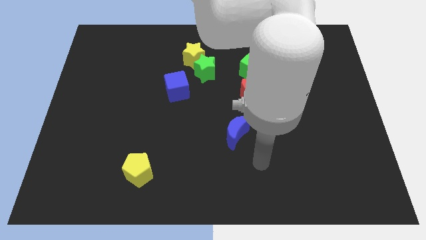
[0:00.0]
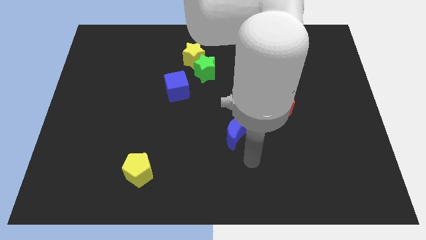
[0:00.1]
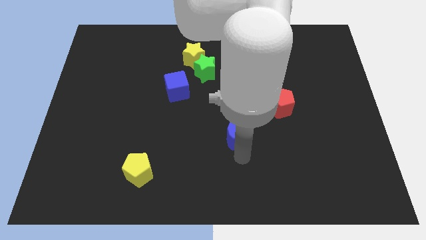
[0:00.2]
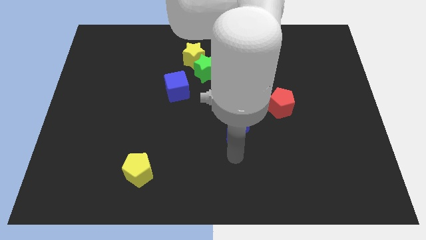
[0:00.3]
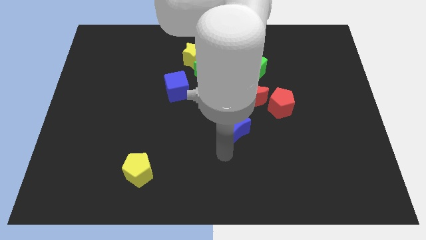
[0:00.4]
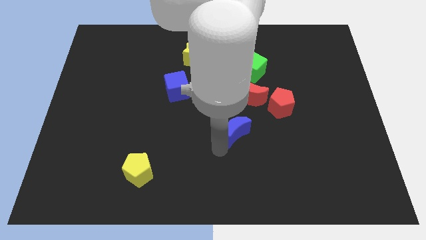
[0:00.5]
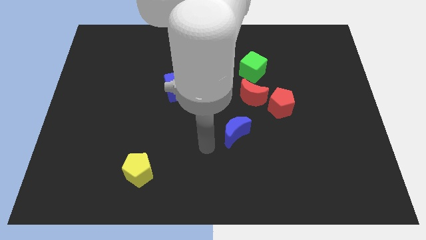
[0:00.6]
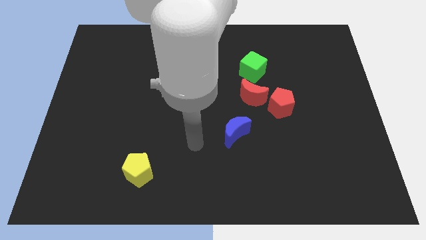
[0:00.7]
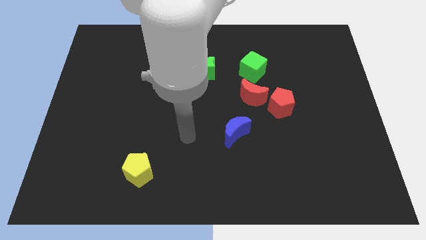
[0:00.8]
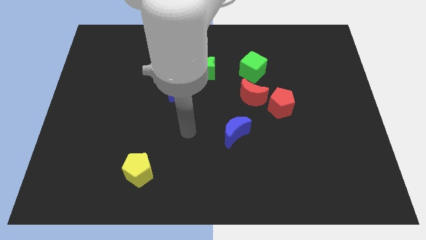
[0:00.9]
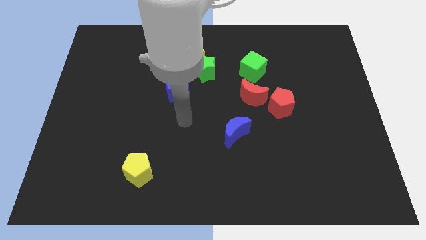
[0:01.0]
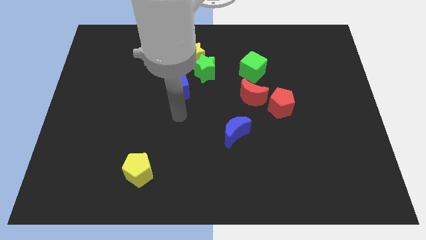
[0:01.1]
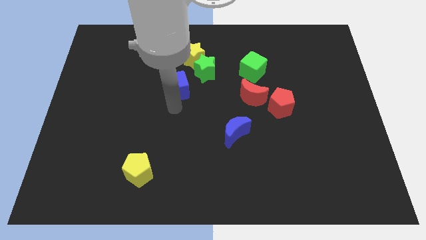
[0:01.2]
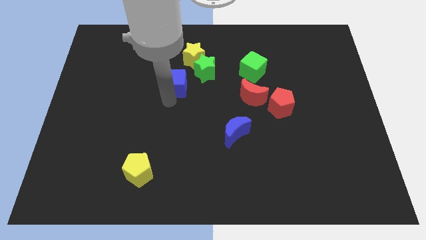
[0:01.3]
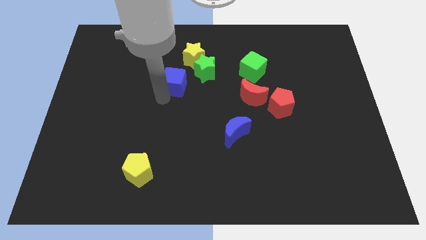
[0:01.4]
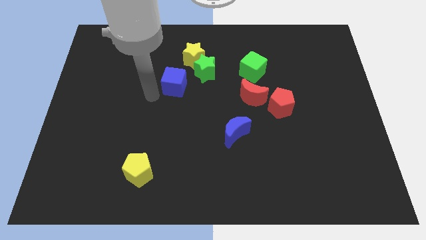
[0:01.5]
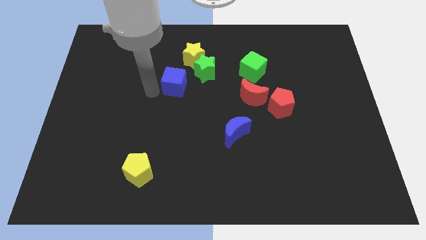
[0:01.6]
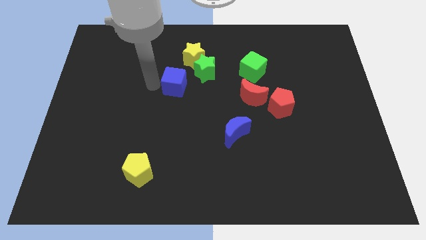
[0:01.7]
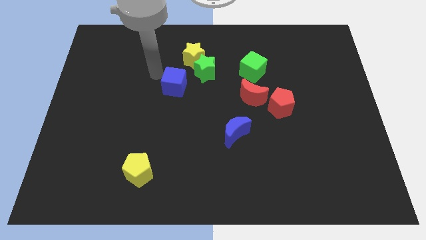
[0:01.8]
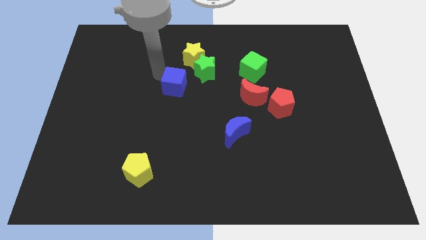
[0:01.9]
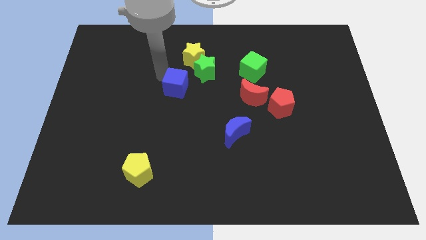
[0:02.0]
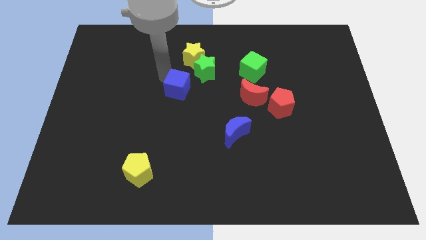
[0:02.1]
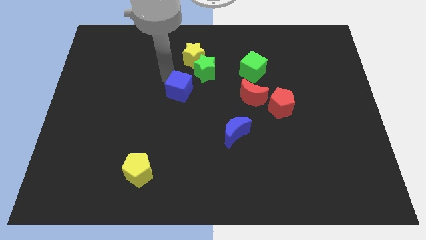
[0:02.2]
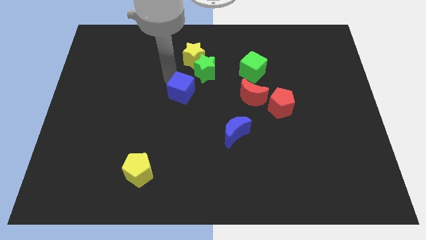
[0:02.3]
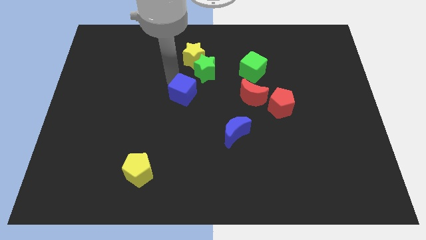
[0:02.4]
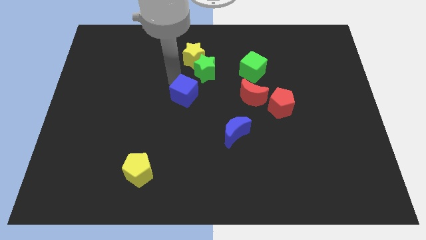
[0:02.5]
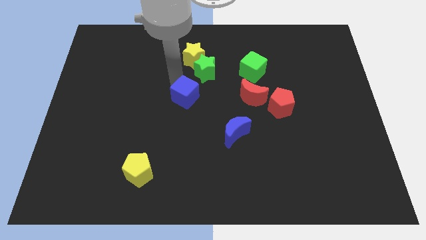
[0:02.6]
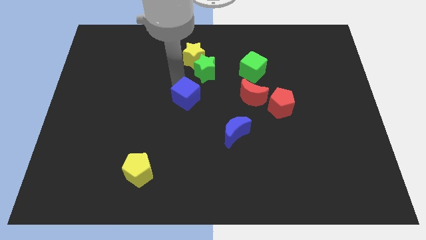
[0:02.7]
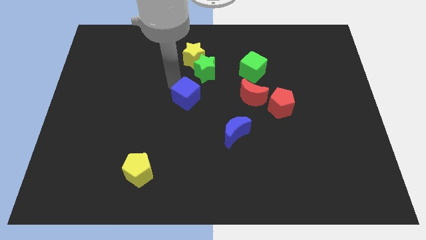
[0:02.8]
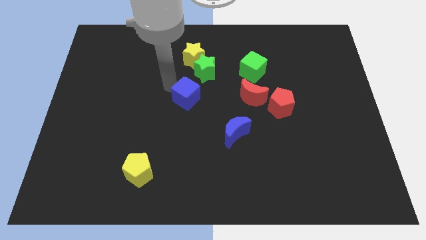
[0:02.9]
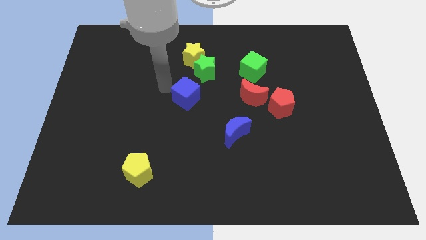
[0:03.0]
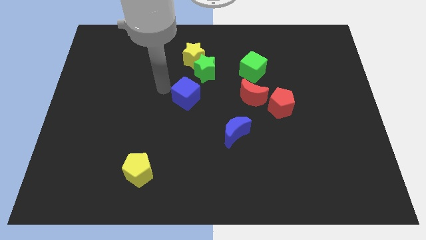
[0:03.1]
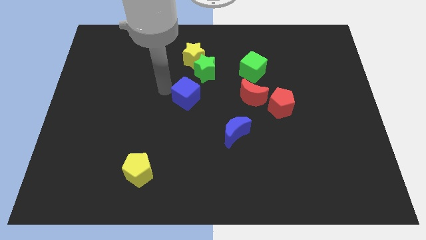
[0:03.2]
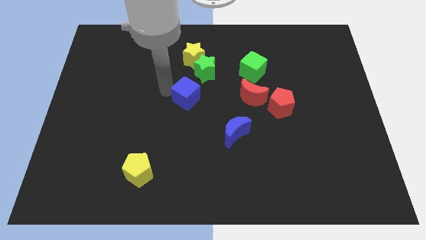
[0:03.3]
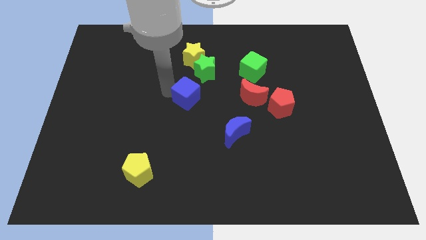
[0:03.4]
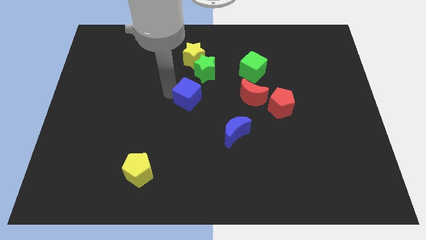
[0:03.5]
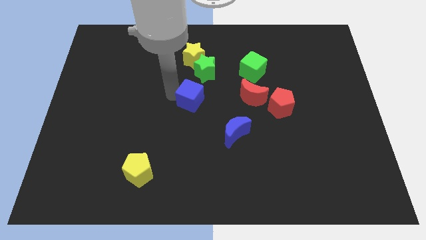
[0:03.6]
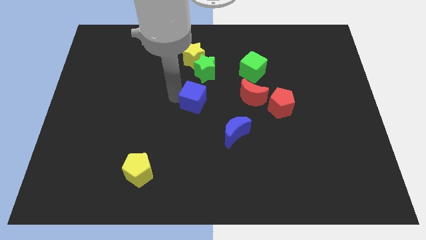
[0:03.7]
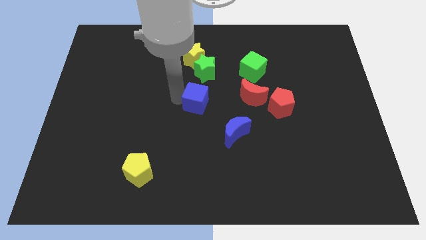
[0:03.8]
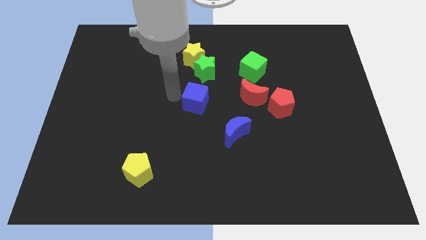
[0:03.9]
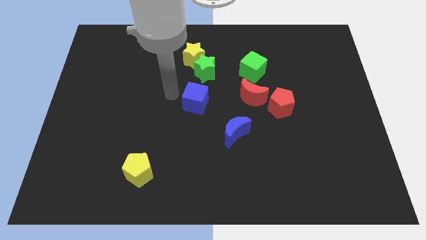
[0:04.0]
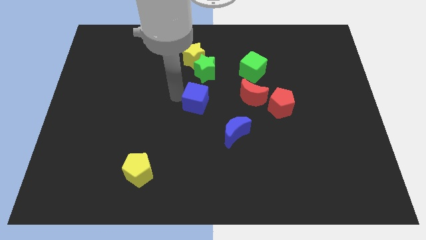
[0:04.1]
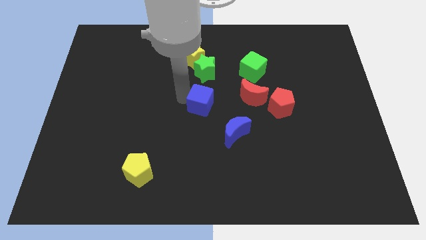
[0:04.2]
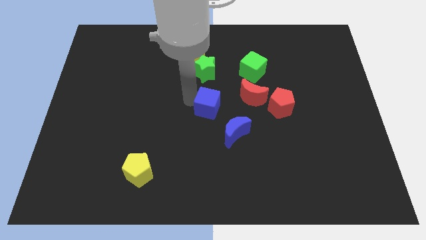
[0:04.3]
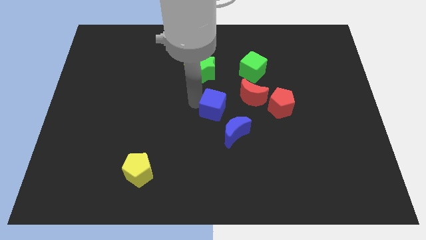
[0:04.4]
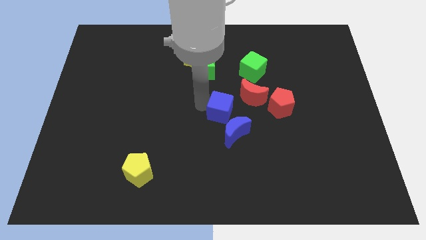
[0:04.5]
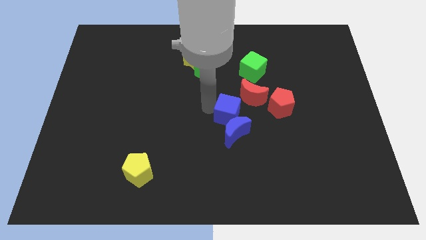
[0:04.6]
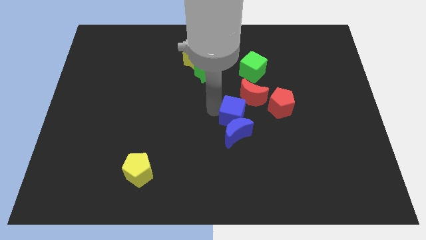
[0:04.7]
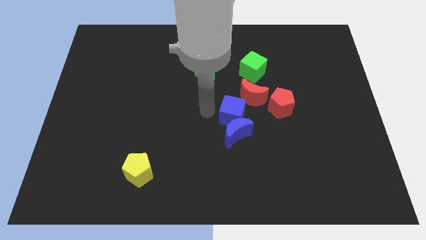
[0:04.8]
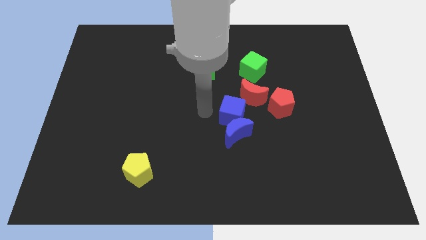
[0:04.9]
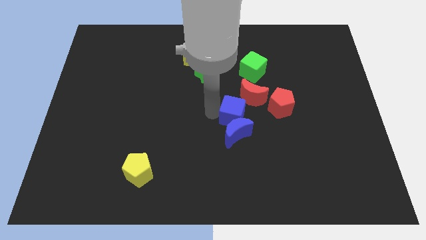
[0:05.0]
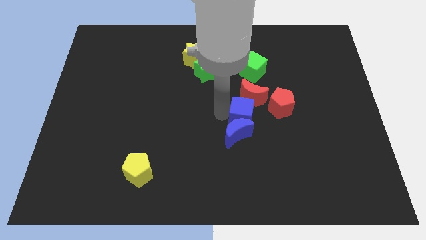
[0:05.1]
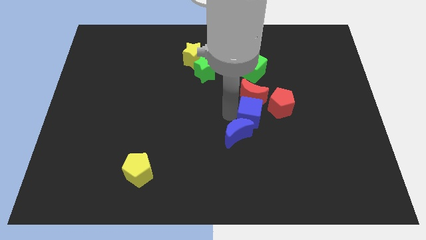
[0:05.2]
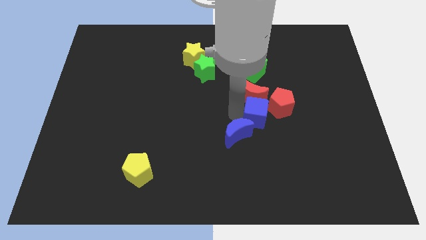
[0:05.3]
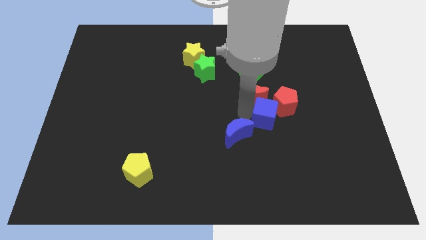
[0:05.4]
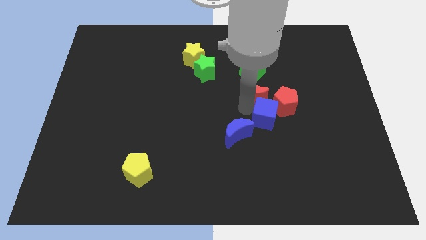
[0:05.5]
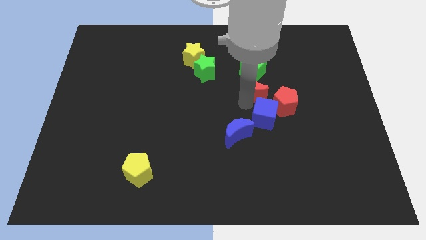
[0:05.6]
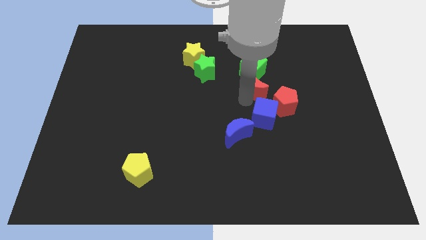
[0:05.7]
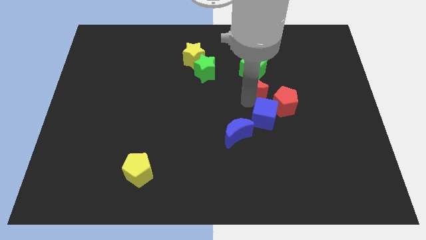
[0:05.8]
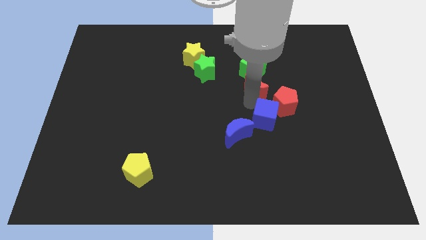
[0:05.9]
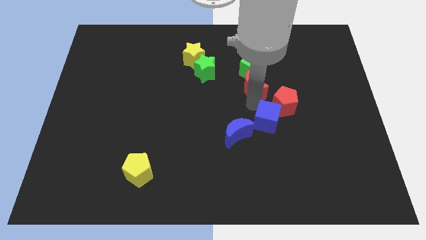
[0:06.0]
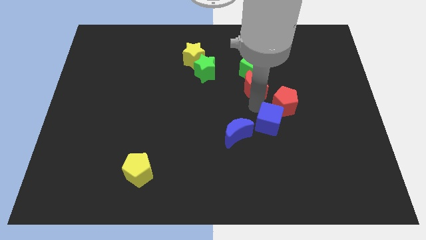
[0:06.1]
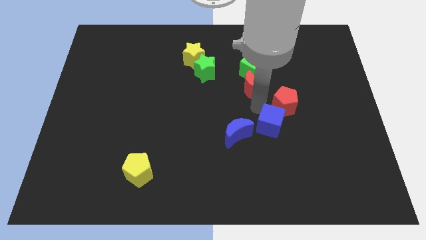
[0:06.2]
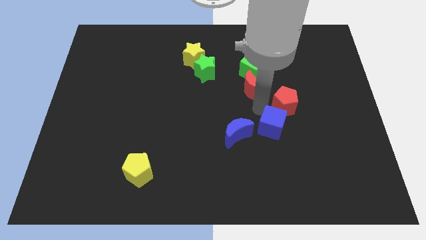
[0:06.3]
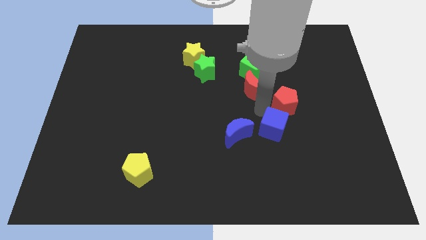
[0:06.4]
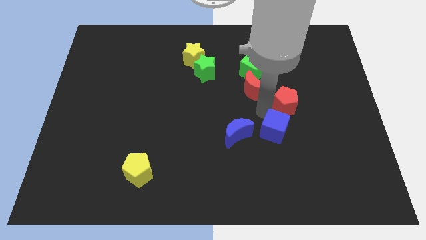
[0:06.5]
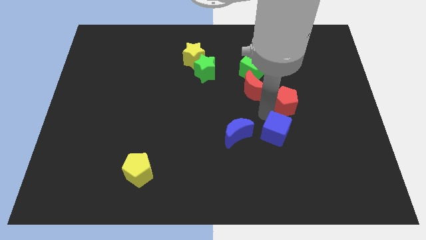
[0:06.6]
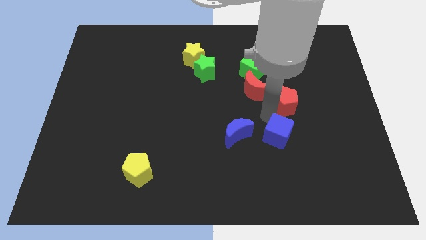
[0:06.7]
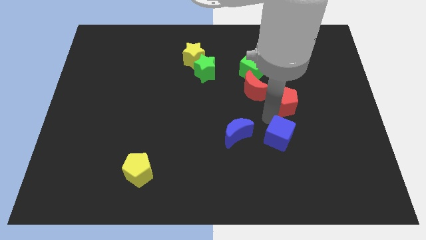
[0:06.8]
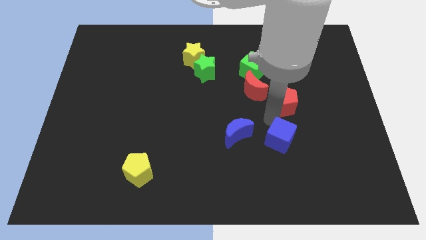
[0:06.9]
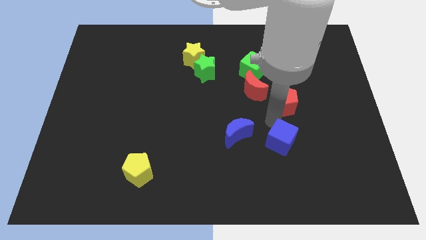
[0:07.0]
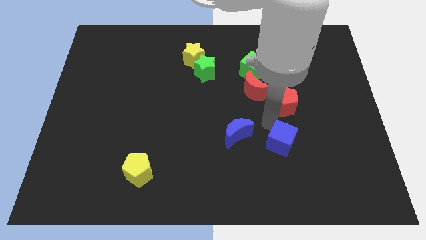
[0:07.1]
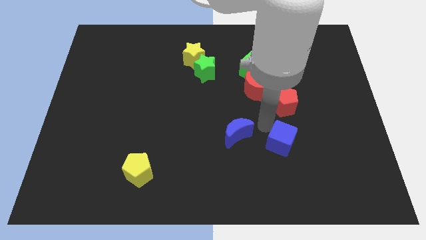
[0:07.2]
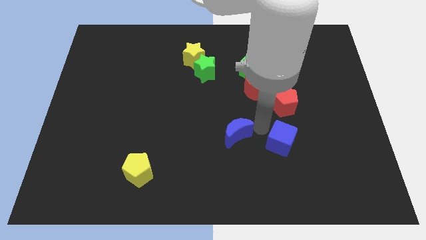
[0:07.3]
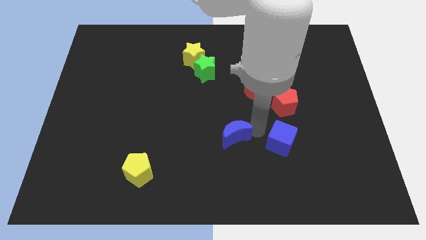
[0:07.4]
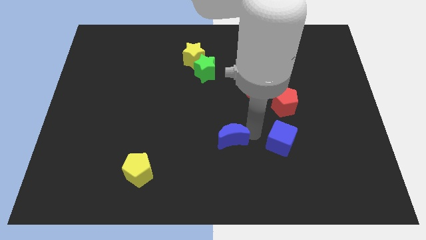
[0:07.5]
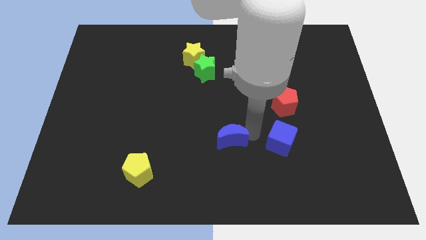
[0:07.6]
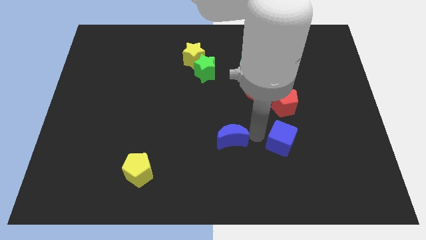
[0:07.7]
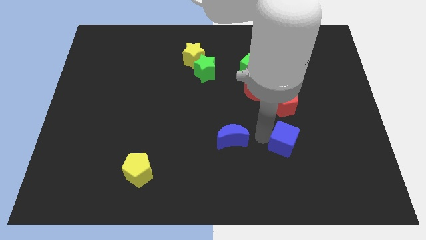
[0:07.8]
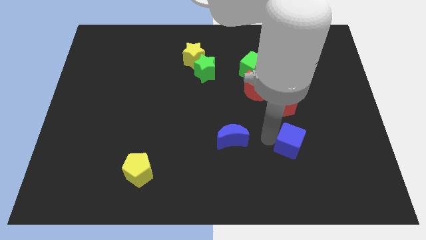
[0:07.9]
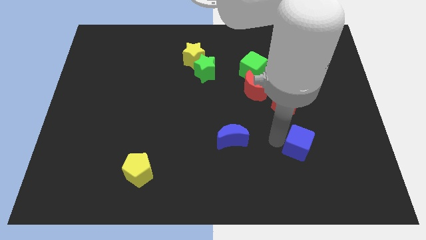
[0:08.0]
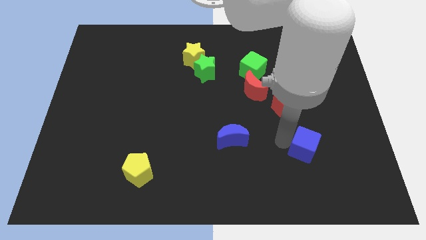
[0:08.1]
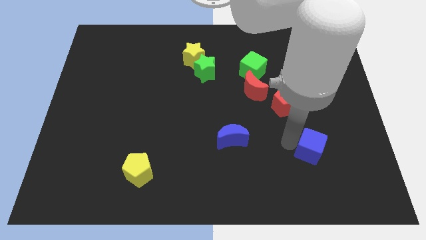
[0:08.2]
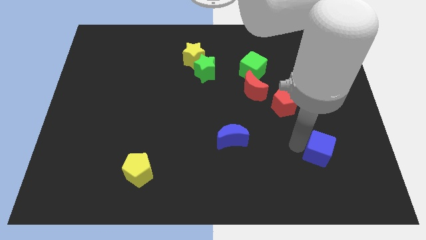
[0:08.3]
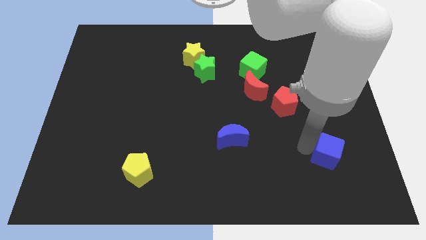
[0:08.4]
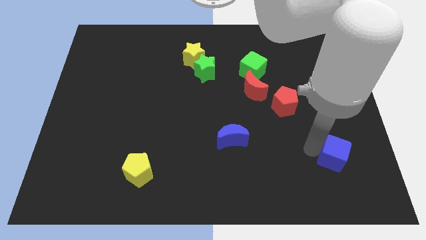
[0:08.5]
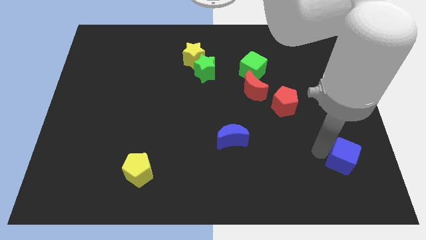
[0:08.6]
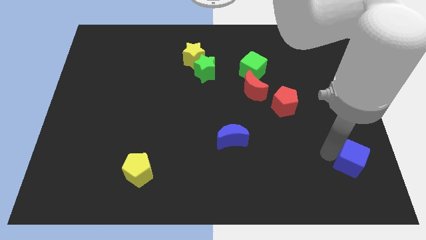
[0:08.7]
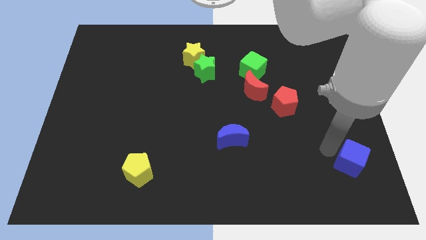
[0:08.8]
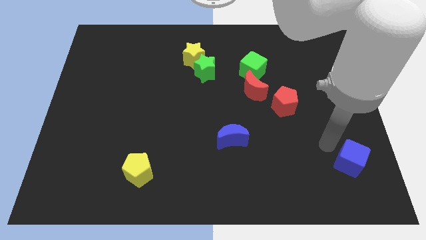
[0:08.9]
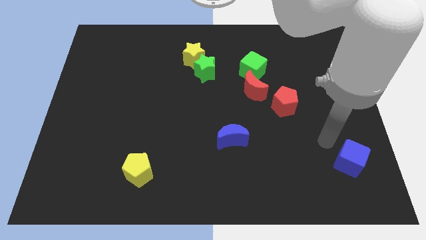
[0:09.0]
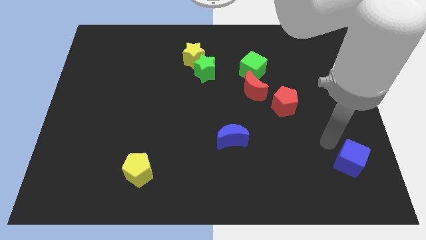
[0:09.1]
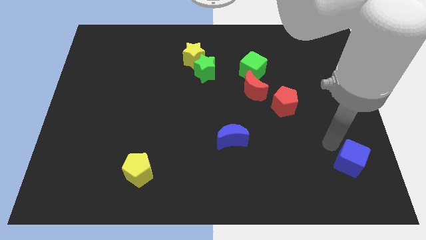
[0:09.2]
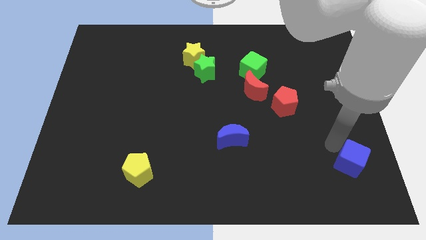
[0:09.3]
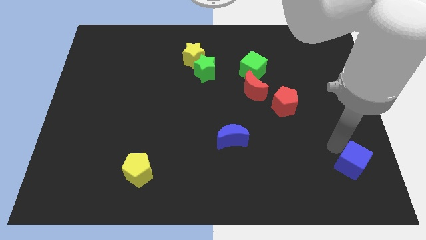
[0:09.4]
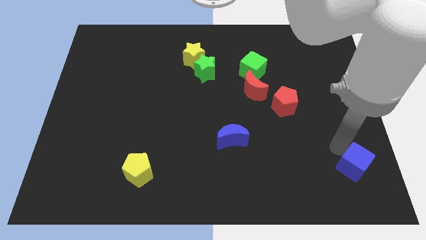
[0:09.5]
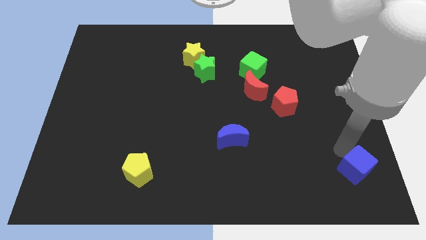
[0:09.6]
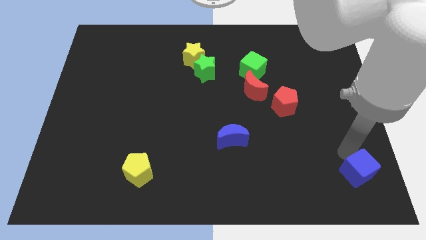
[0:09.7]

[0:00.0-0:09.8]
slide the blue cube to the bottom right corner
